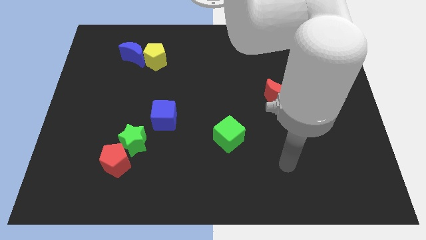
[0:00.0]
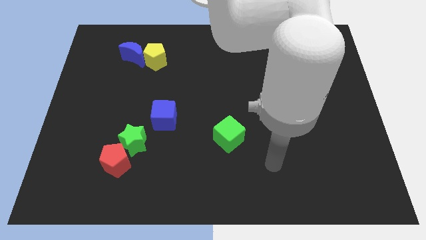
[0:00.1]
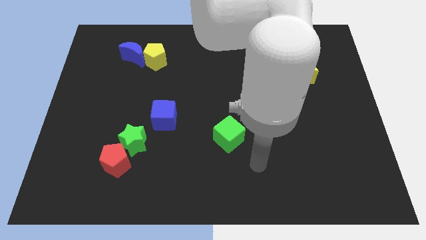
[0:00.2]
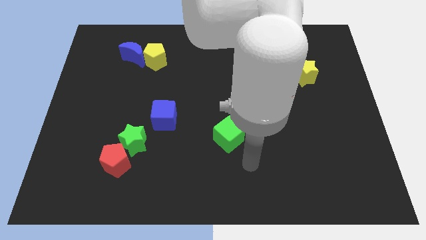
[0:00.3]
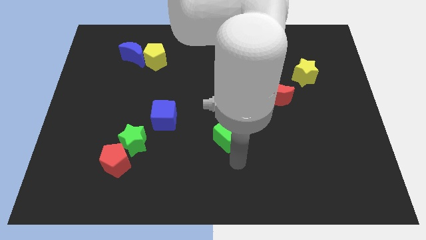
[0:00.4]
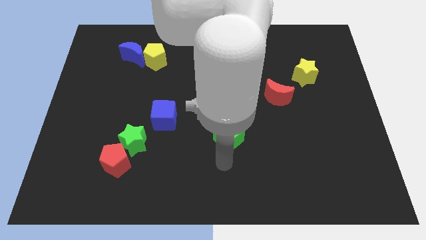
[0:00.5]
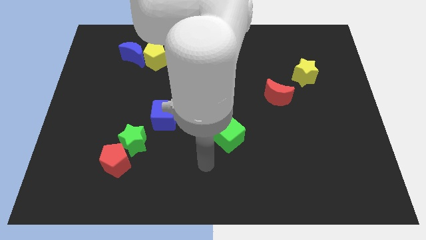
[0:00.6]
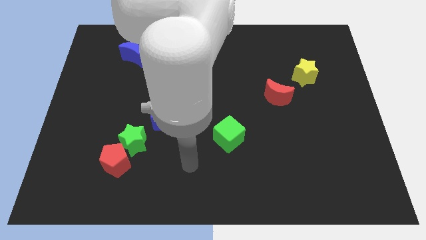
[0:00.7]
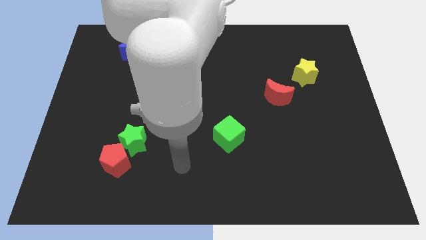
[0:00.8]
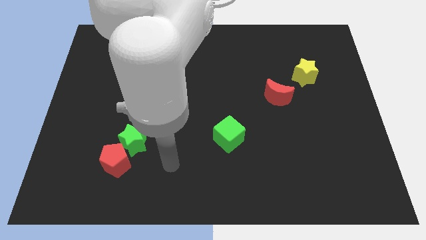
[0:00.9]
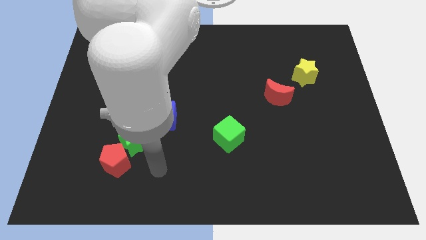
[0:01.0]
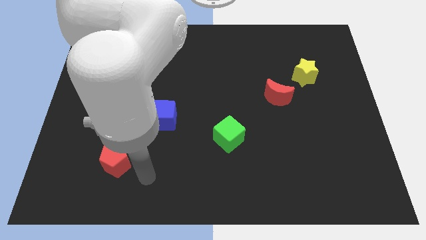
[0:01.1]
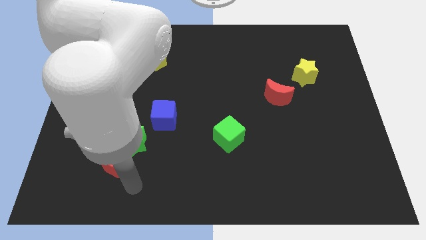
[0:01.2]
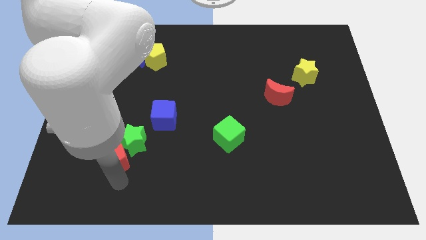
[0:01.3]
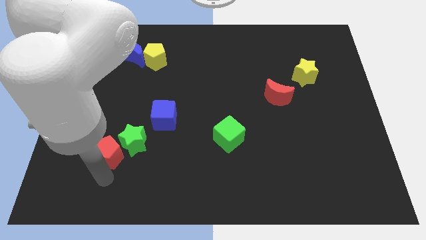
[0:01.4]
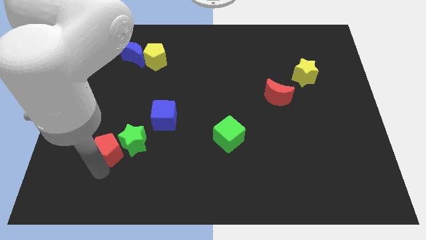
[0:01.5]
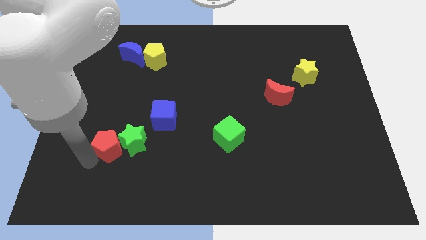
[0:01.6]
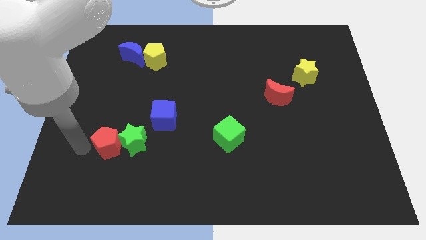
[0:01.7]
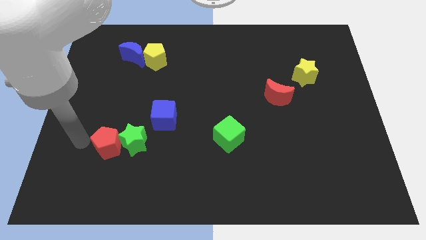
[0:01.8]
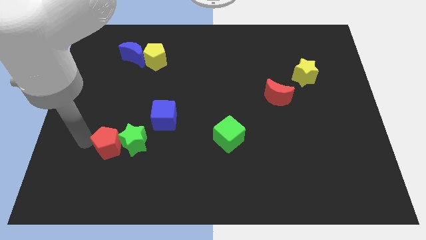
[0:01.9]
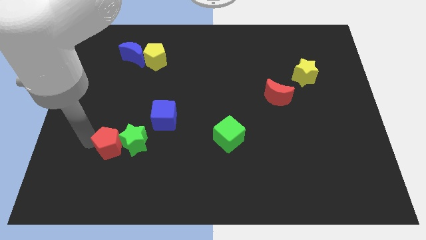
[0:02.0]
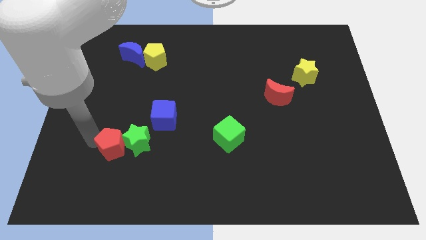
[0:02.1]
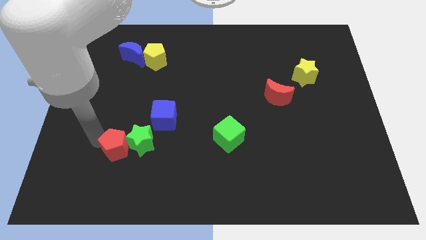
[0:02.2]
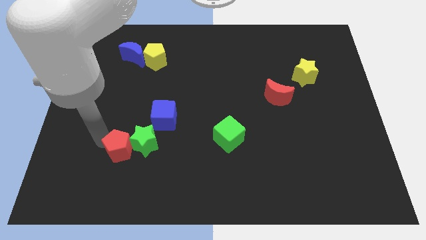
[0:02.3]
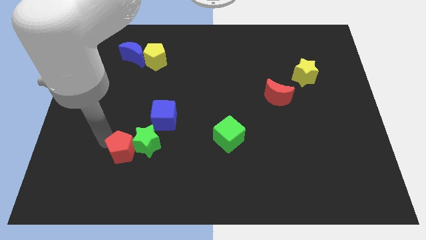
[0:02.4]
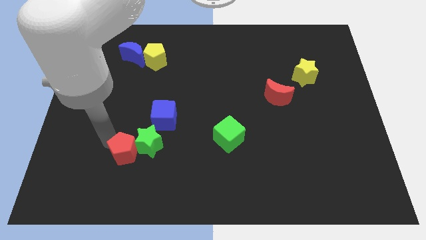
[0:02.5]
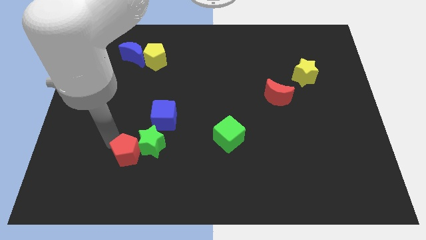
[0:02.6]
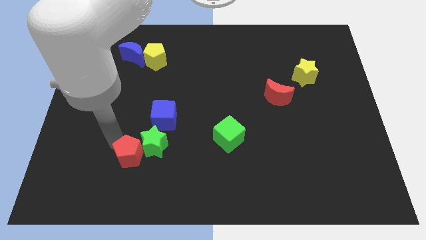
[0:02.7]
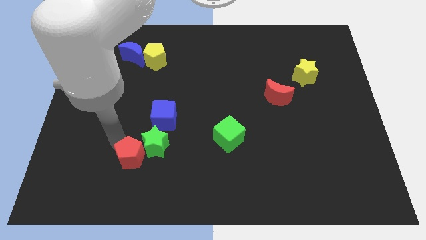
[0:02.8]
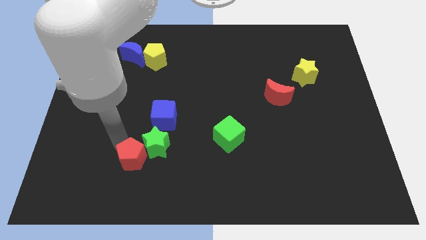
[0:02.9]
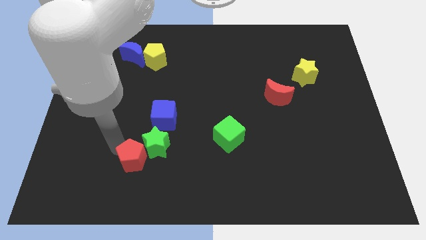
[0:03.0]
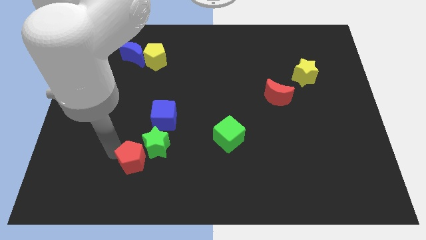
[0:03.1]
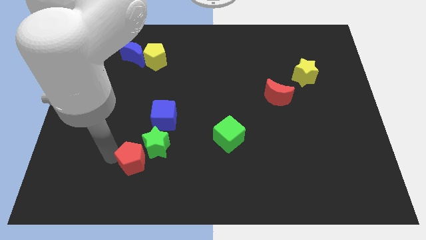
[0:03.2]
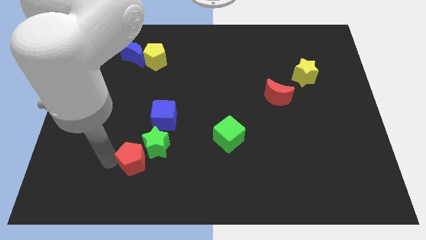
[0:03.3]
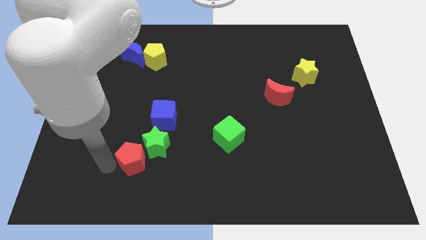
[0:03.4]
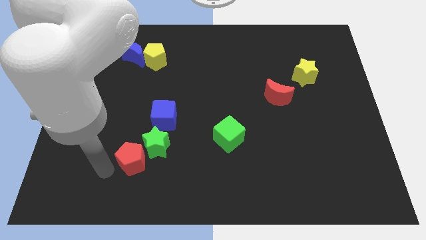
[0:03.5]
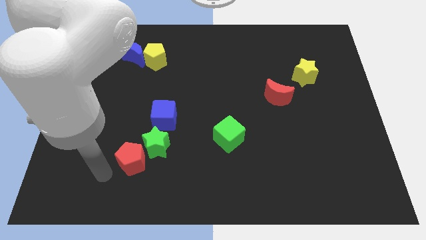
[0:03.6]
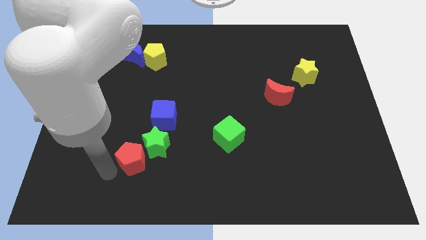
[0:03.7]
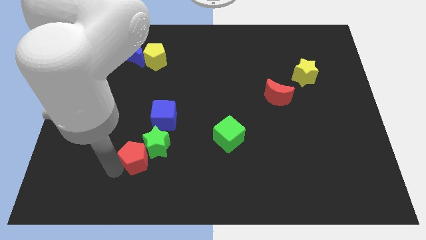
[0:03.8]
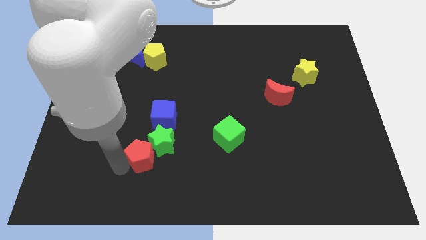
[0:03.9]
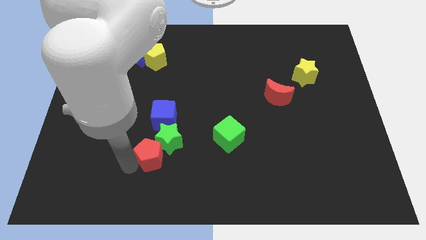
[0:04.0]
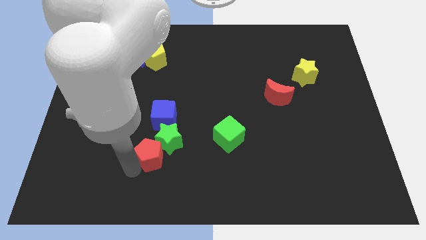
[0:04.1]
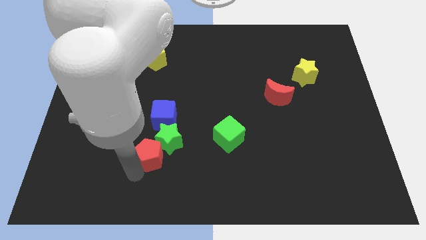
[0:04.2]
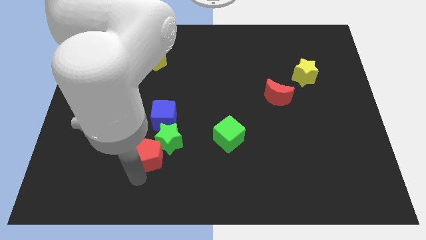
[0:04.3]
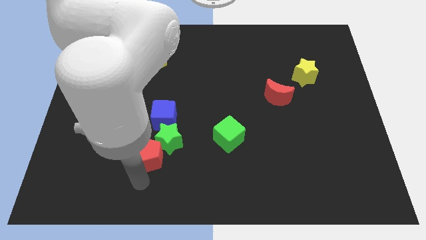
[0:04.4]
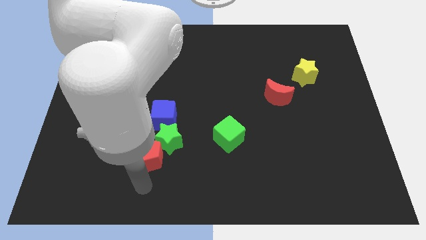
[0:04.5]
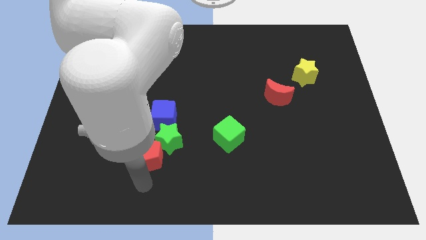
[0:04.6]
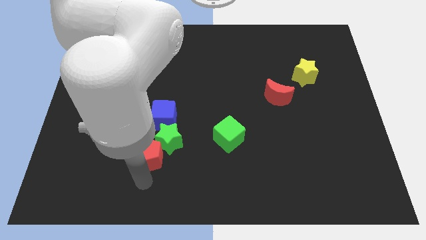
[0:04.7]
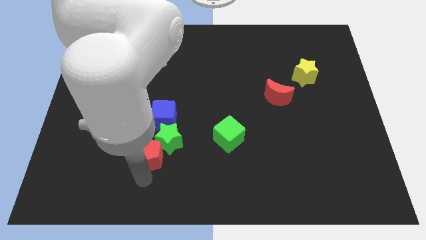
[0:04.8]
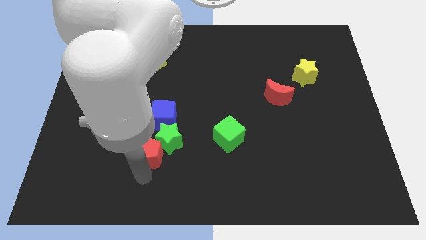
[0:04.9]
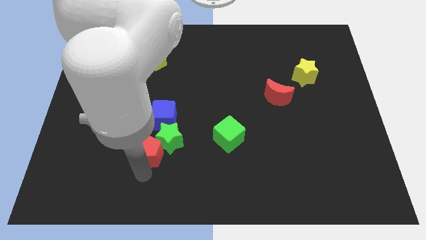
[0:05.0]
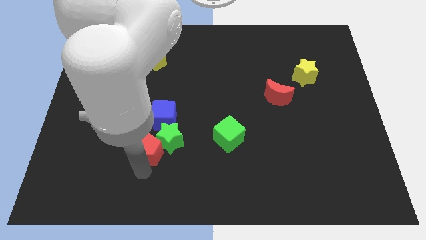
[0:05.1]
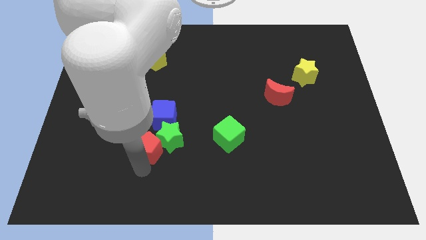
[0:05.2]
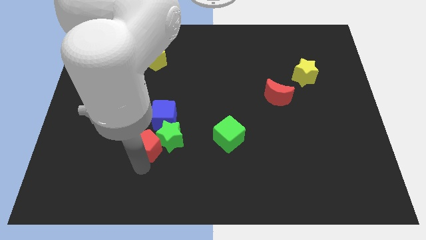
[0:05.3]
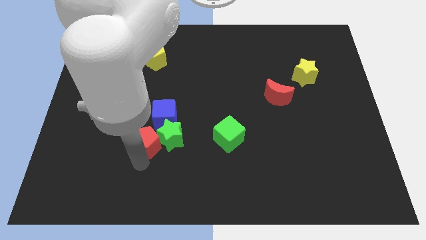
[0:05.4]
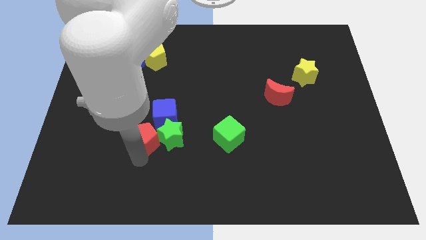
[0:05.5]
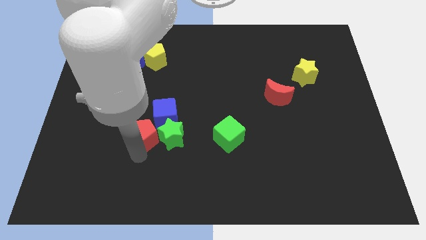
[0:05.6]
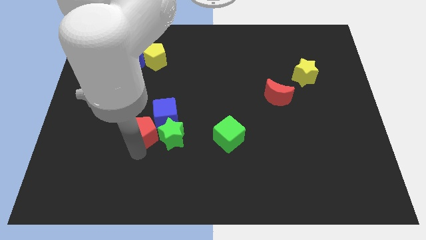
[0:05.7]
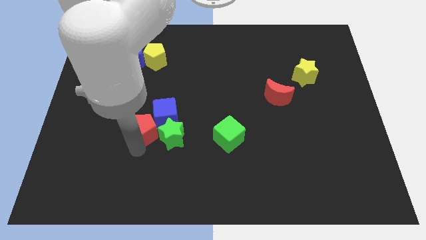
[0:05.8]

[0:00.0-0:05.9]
slide the red pentagon to the blue cube

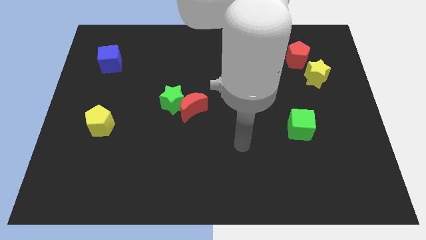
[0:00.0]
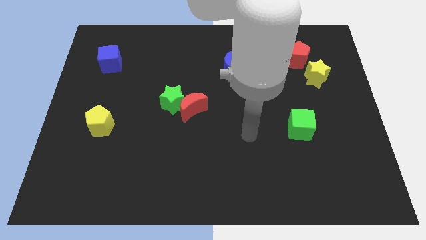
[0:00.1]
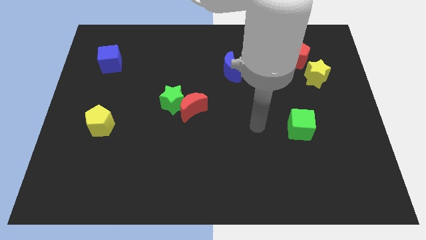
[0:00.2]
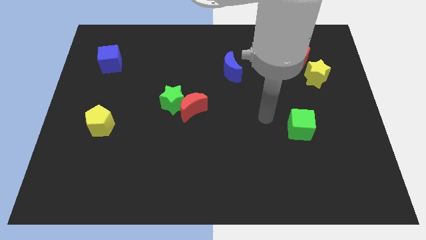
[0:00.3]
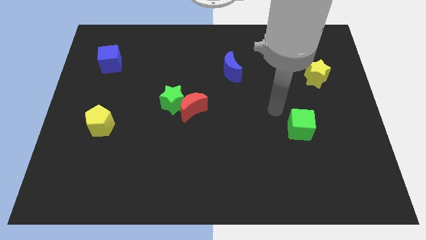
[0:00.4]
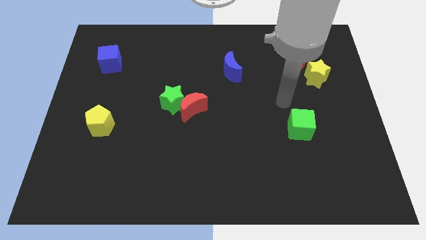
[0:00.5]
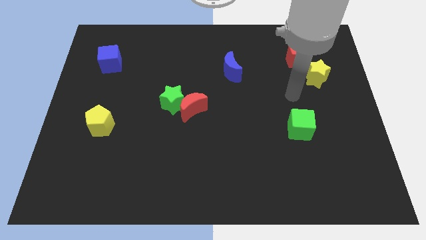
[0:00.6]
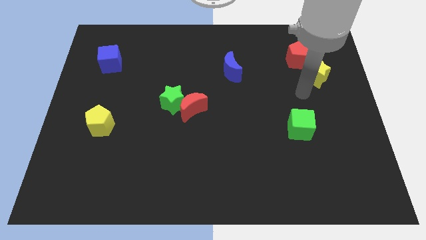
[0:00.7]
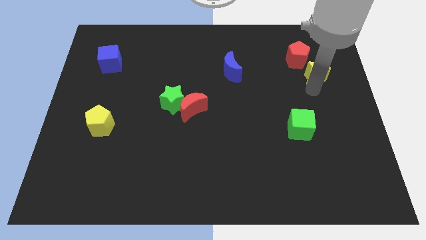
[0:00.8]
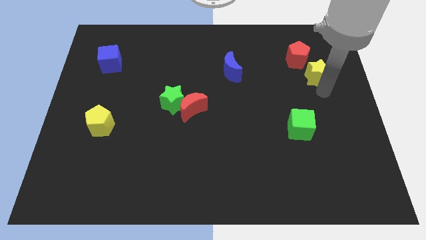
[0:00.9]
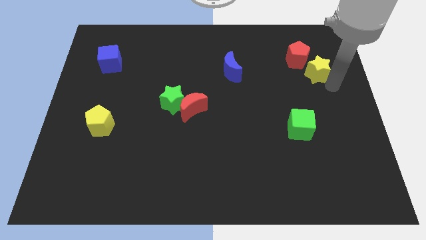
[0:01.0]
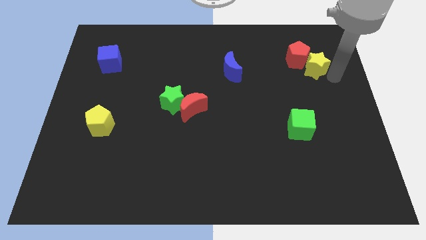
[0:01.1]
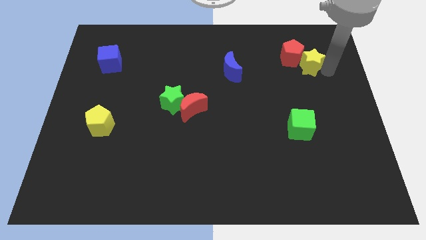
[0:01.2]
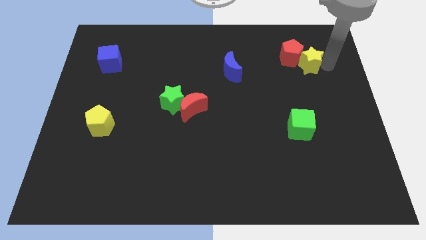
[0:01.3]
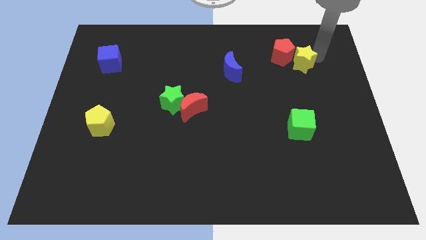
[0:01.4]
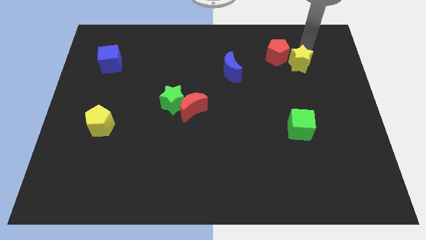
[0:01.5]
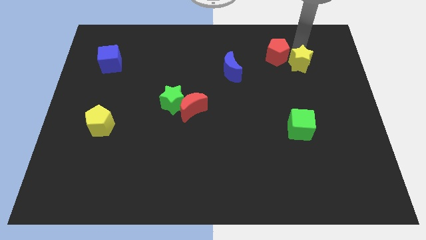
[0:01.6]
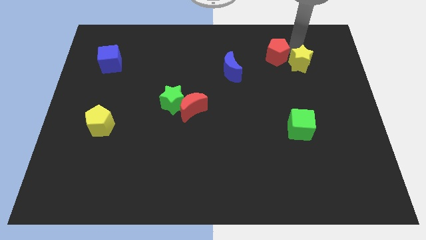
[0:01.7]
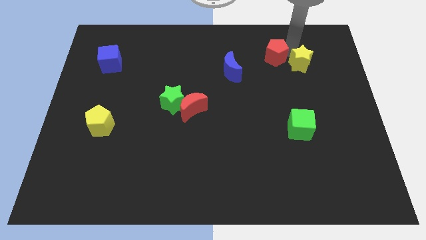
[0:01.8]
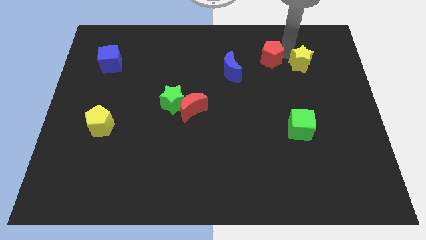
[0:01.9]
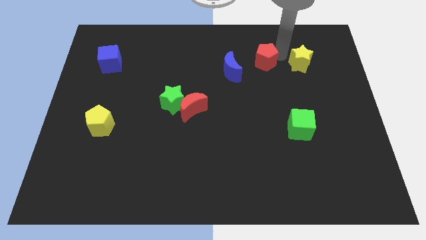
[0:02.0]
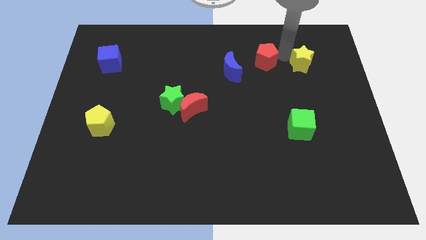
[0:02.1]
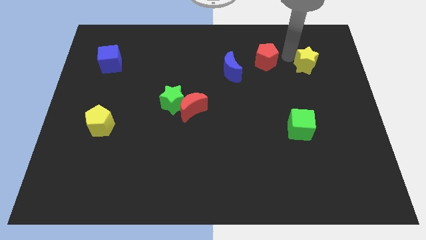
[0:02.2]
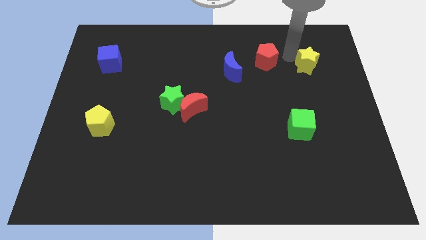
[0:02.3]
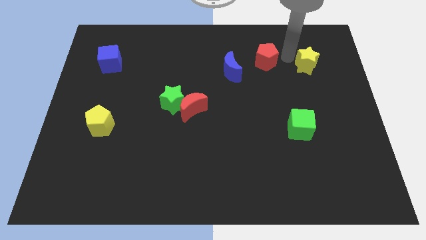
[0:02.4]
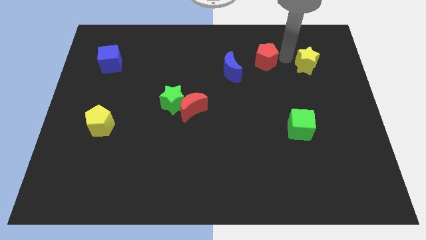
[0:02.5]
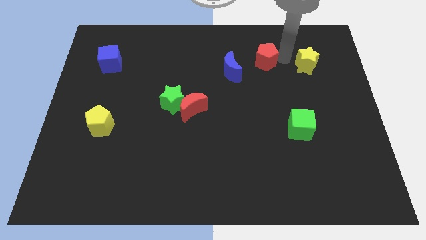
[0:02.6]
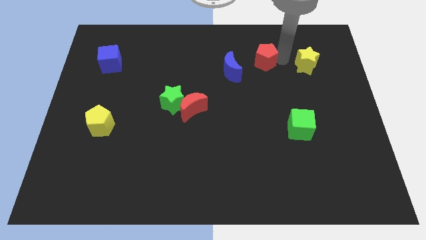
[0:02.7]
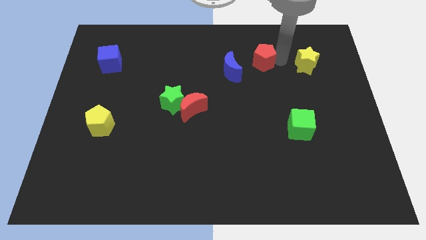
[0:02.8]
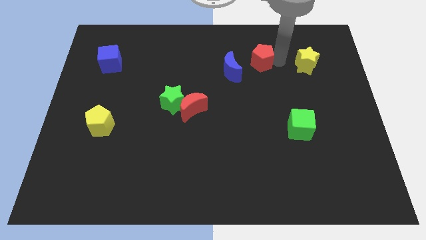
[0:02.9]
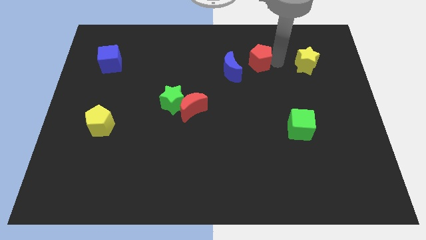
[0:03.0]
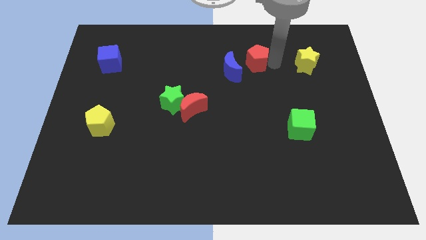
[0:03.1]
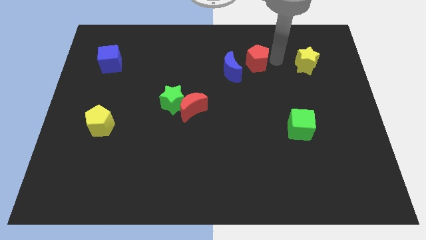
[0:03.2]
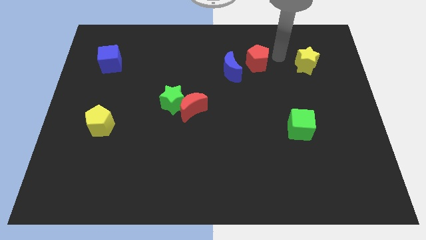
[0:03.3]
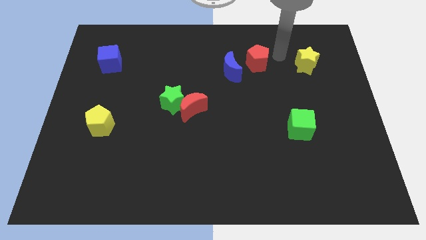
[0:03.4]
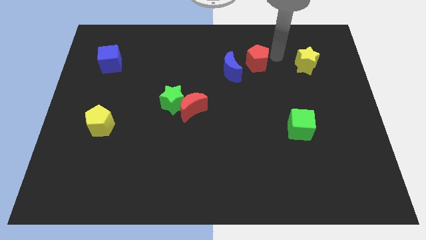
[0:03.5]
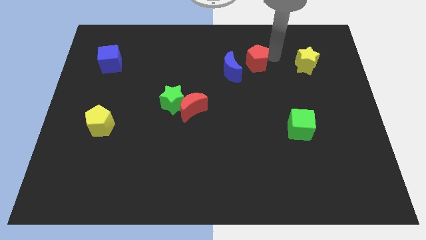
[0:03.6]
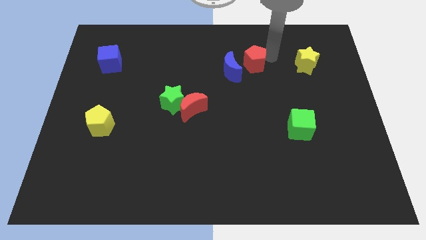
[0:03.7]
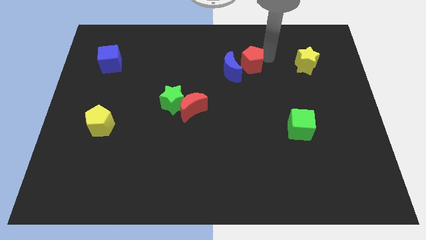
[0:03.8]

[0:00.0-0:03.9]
slide the red pentagon next to the blue moon
